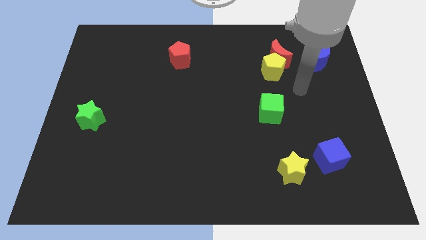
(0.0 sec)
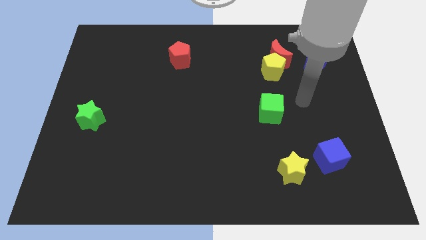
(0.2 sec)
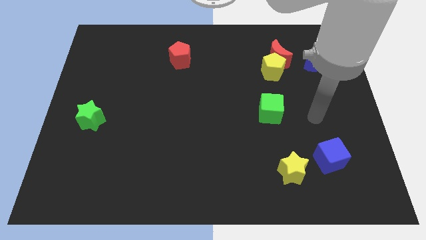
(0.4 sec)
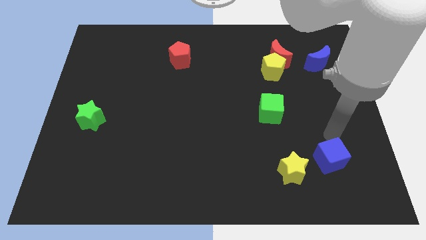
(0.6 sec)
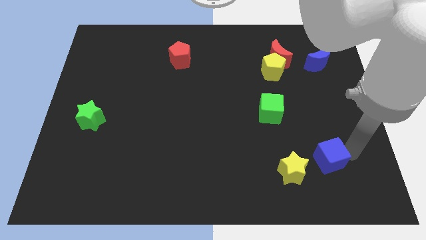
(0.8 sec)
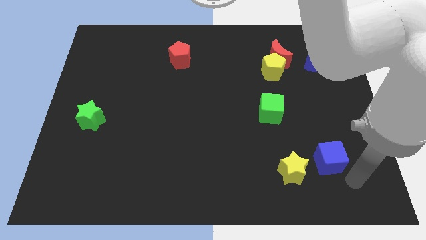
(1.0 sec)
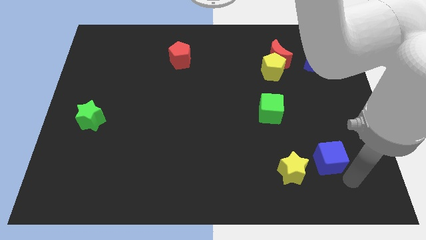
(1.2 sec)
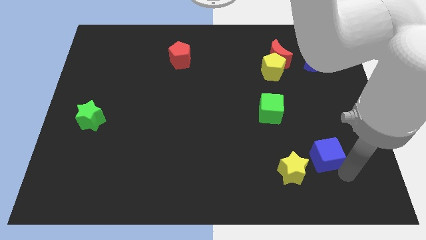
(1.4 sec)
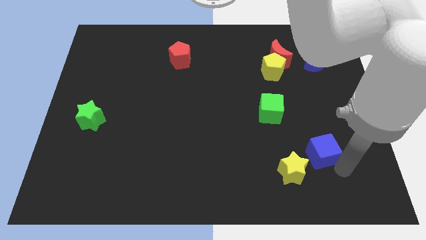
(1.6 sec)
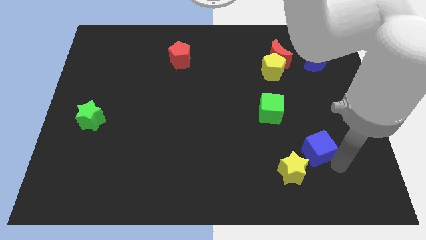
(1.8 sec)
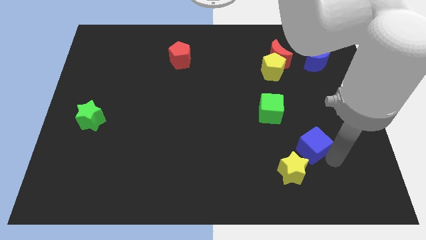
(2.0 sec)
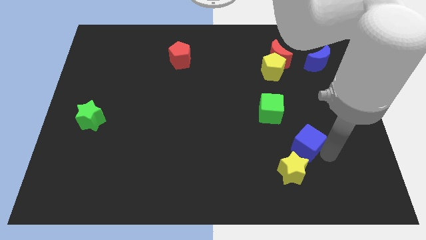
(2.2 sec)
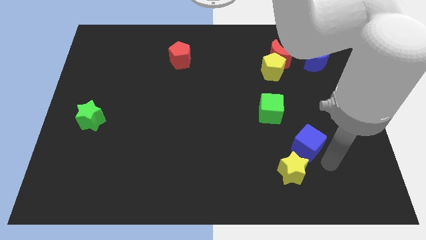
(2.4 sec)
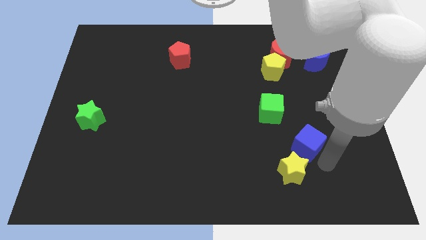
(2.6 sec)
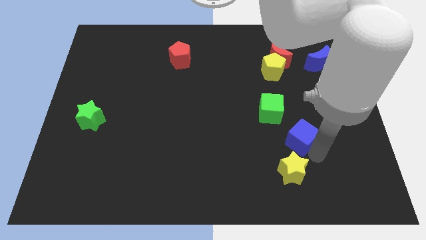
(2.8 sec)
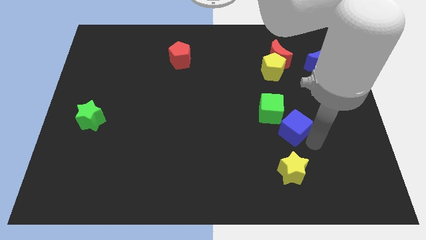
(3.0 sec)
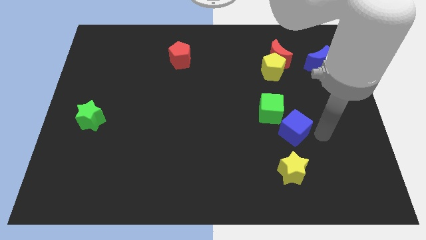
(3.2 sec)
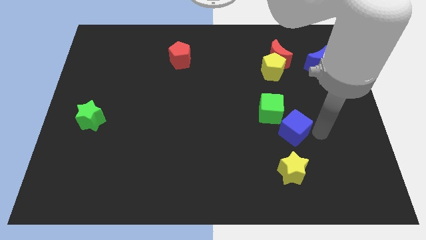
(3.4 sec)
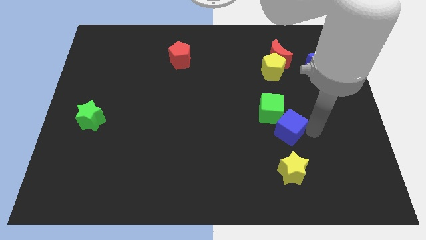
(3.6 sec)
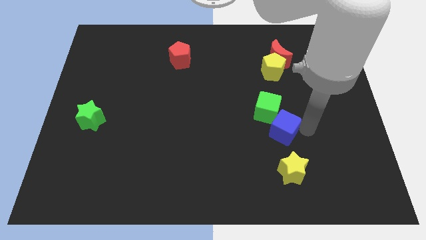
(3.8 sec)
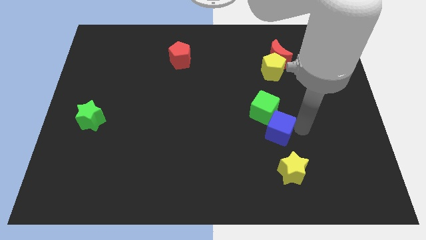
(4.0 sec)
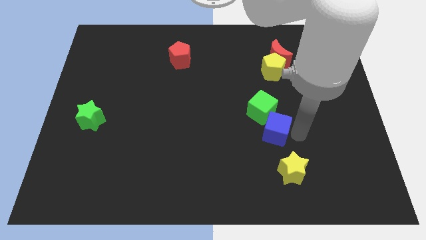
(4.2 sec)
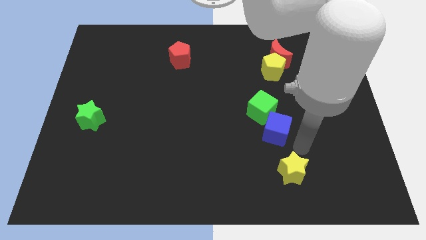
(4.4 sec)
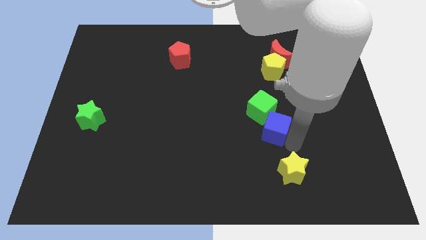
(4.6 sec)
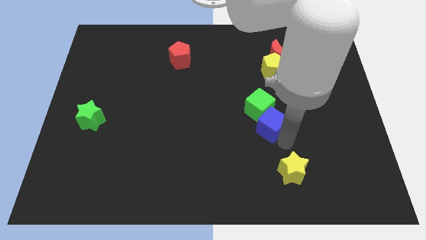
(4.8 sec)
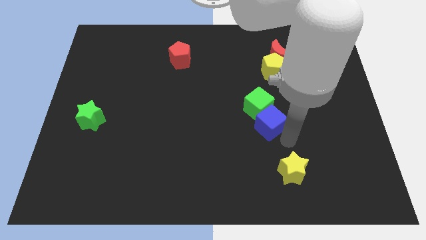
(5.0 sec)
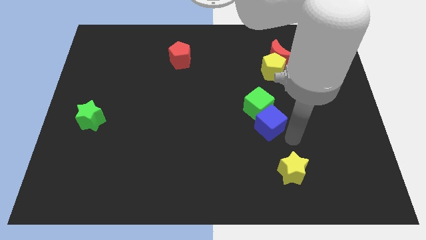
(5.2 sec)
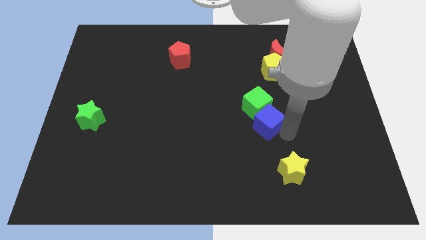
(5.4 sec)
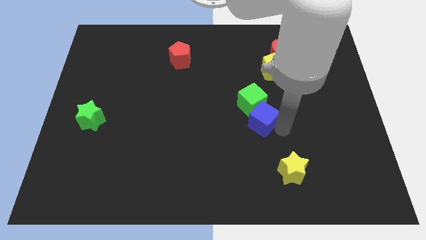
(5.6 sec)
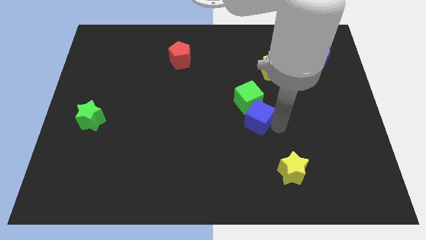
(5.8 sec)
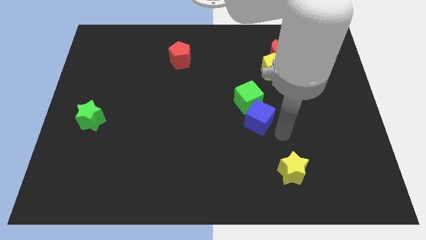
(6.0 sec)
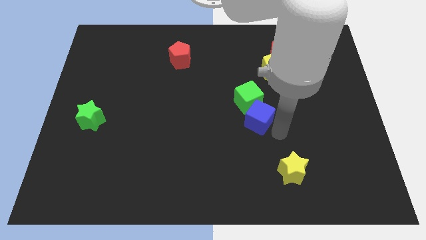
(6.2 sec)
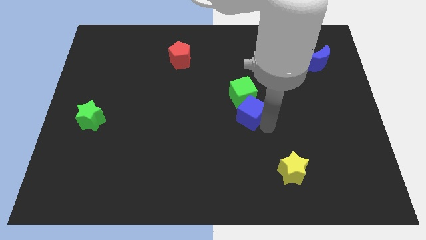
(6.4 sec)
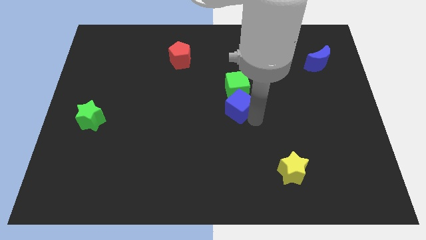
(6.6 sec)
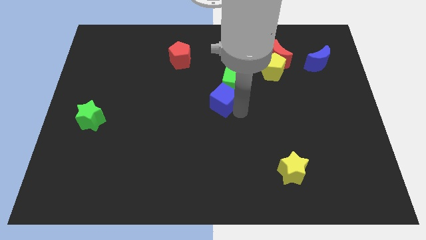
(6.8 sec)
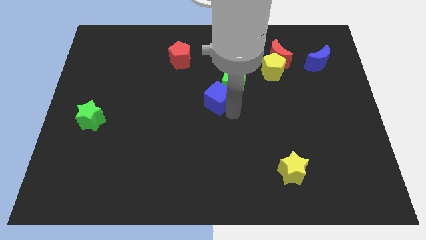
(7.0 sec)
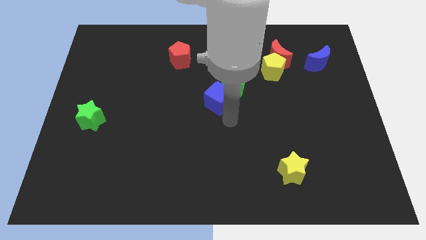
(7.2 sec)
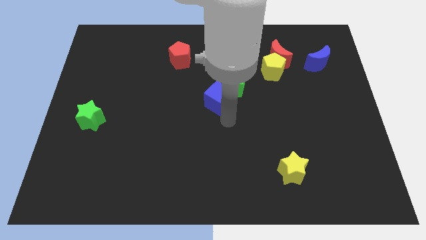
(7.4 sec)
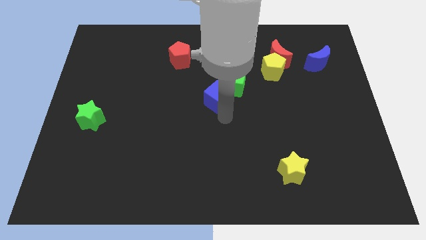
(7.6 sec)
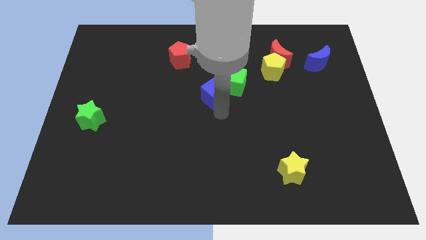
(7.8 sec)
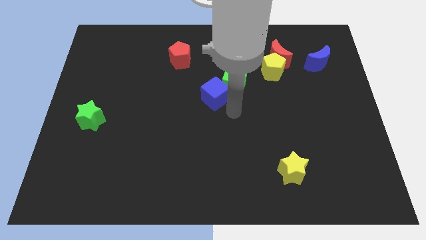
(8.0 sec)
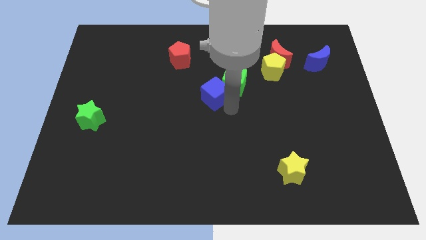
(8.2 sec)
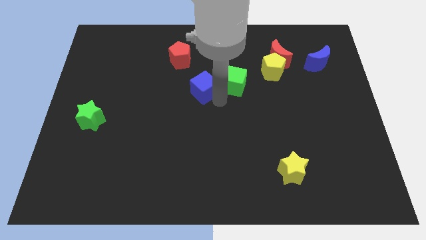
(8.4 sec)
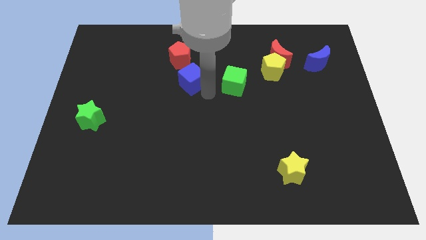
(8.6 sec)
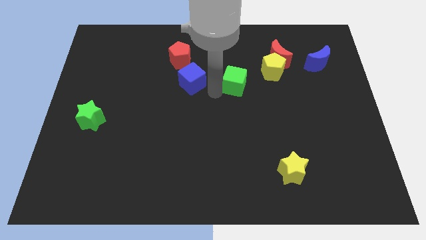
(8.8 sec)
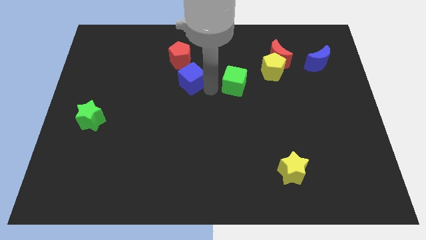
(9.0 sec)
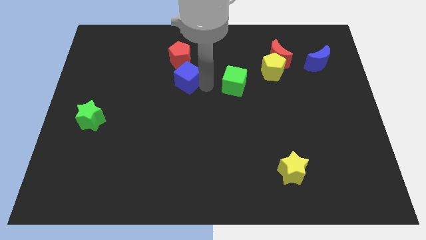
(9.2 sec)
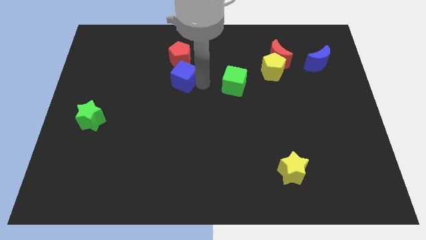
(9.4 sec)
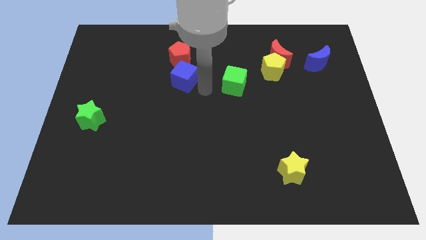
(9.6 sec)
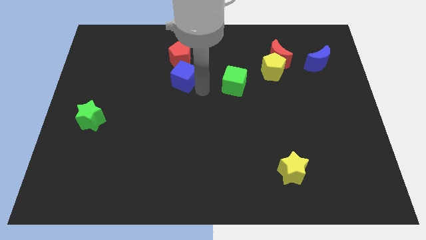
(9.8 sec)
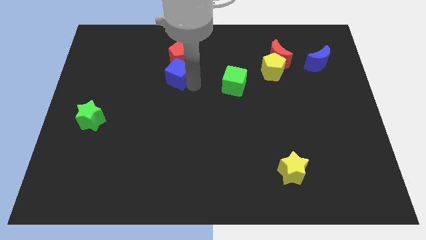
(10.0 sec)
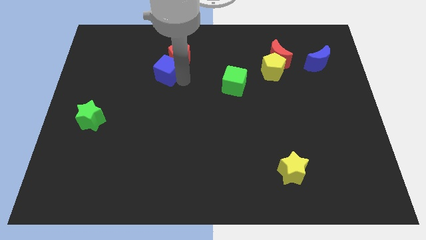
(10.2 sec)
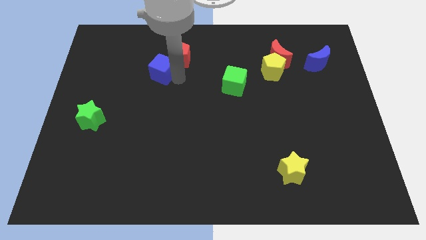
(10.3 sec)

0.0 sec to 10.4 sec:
slide the blue cube to the left of the red pentagon
